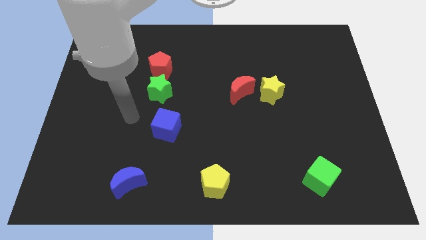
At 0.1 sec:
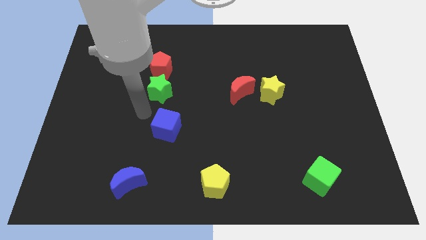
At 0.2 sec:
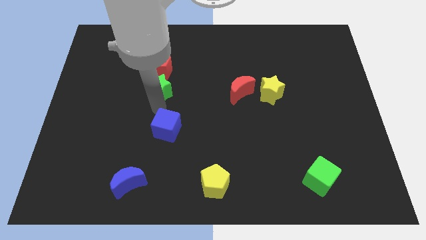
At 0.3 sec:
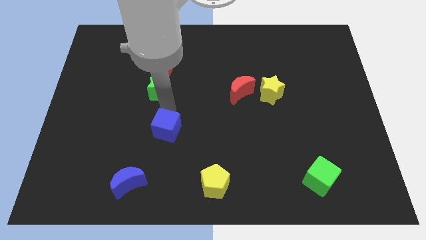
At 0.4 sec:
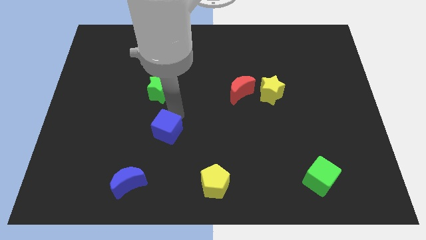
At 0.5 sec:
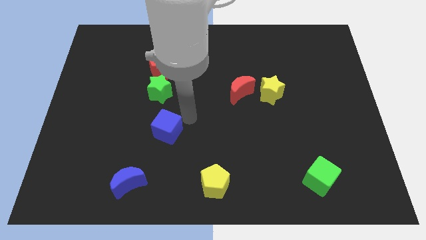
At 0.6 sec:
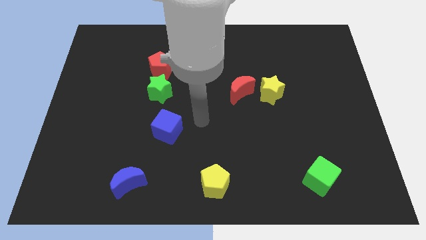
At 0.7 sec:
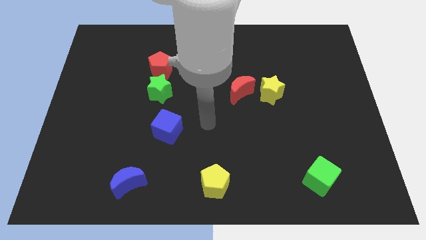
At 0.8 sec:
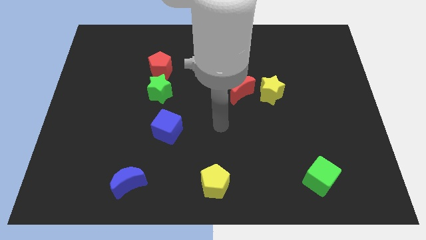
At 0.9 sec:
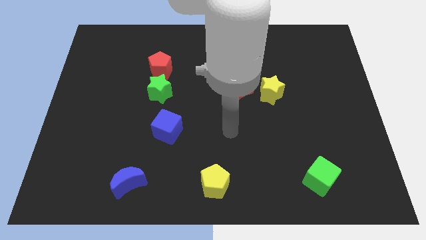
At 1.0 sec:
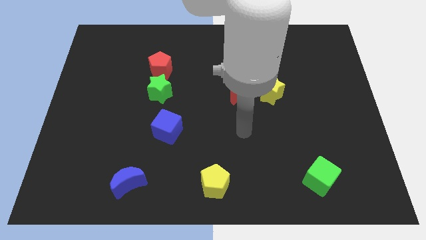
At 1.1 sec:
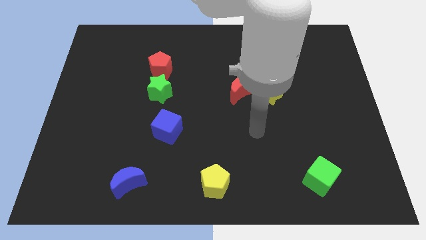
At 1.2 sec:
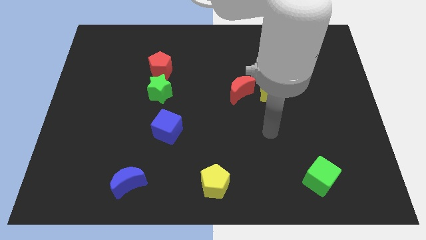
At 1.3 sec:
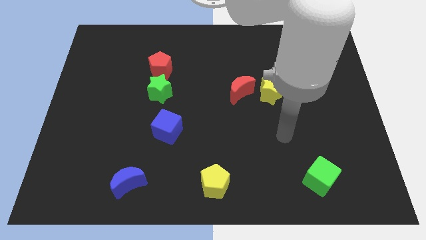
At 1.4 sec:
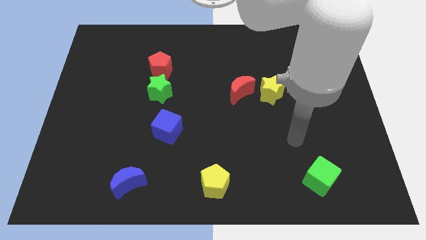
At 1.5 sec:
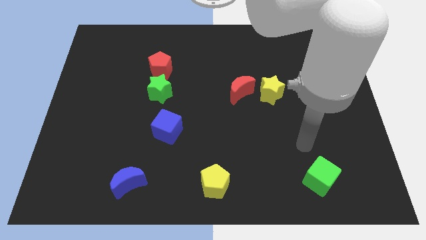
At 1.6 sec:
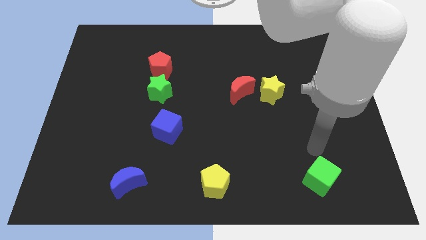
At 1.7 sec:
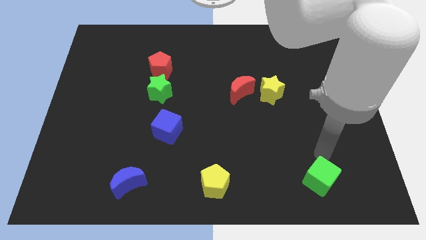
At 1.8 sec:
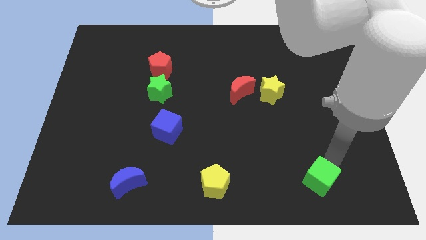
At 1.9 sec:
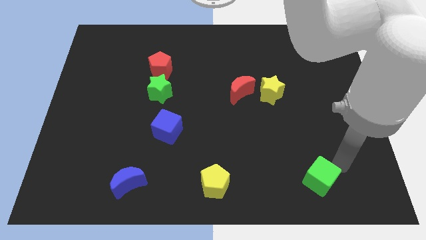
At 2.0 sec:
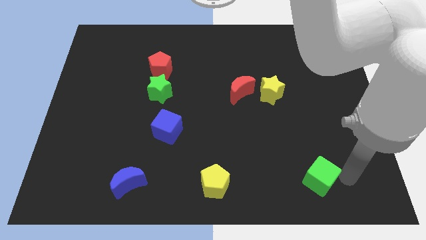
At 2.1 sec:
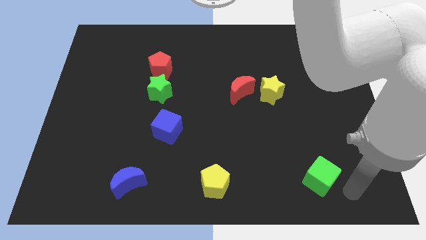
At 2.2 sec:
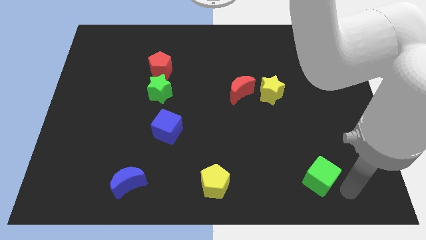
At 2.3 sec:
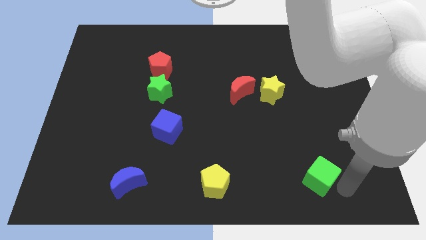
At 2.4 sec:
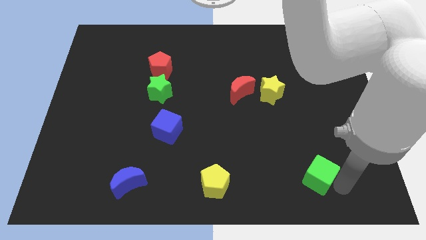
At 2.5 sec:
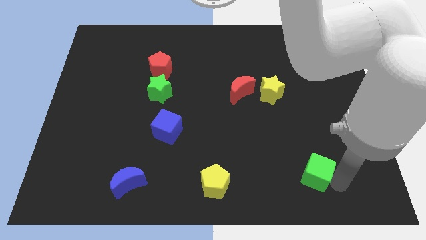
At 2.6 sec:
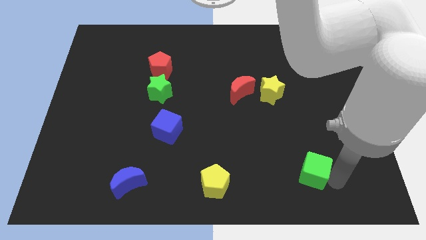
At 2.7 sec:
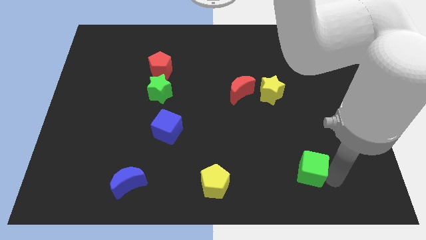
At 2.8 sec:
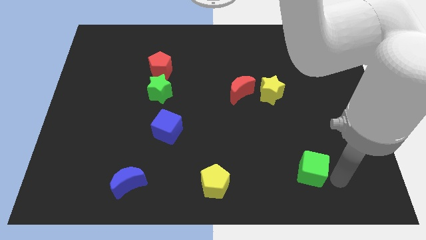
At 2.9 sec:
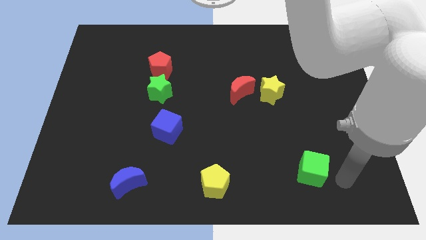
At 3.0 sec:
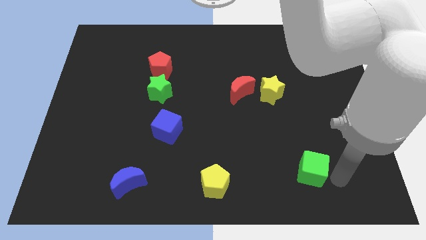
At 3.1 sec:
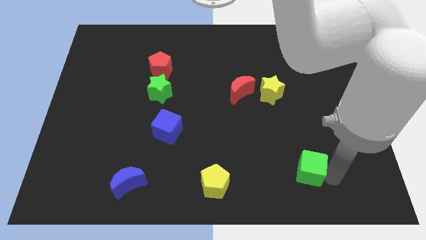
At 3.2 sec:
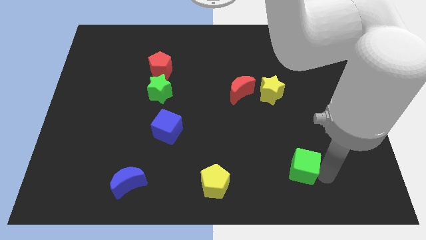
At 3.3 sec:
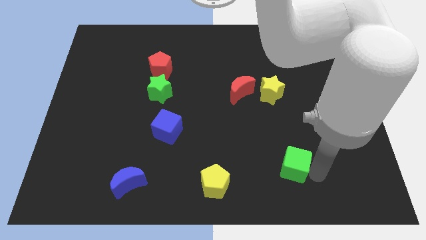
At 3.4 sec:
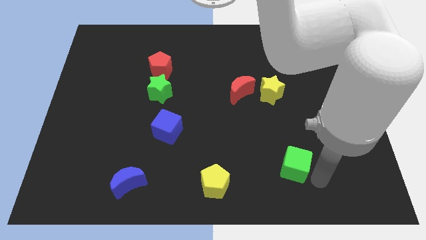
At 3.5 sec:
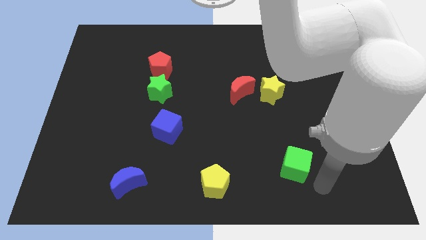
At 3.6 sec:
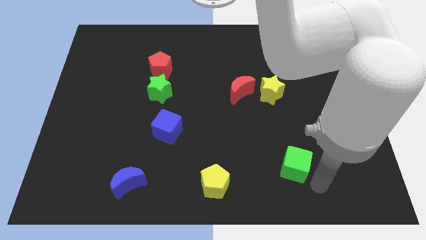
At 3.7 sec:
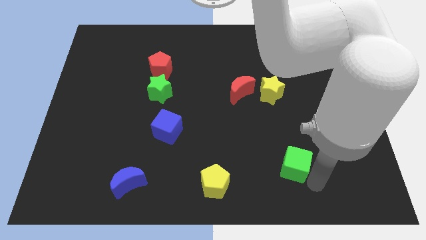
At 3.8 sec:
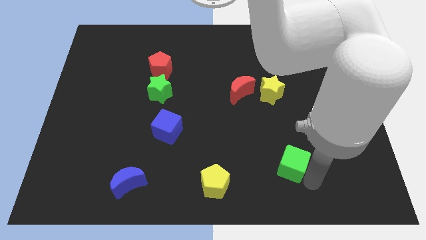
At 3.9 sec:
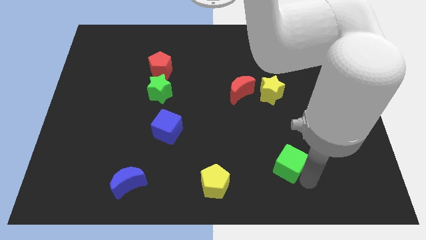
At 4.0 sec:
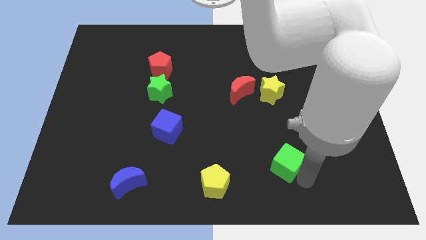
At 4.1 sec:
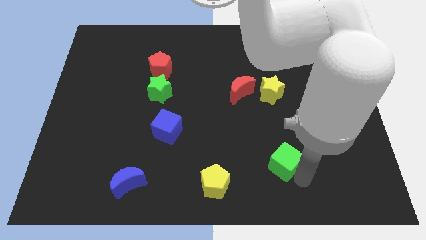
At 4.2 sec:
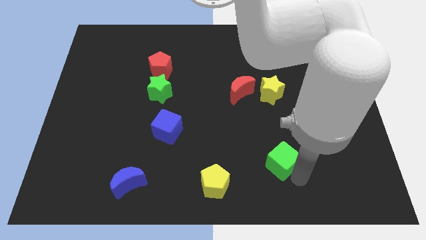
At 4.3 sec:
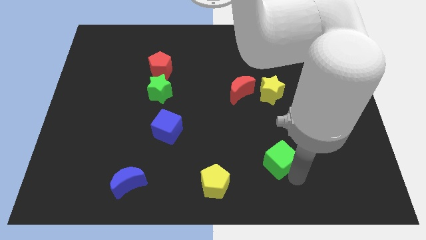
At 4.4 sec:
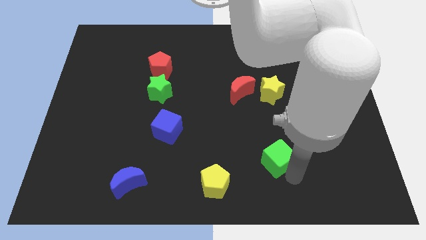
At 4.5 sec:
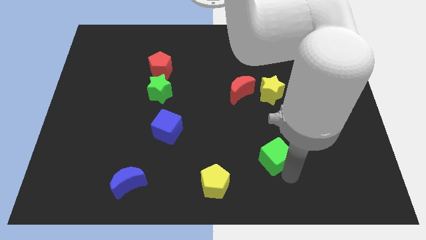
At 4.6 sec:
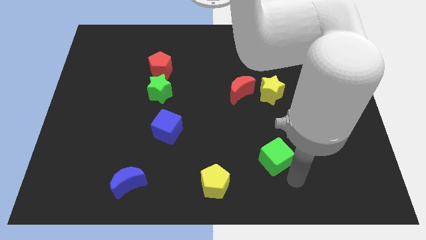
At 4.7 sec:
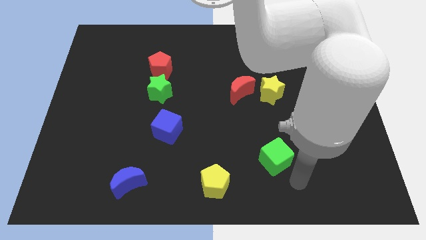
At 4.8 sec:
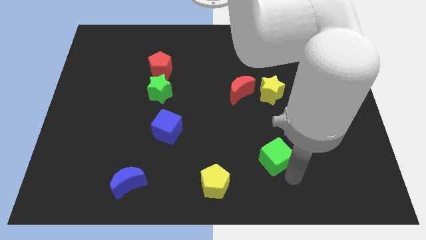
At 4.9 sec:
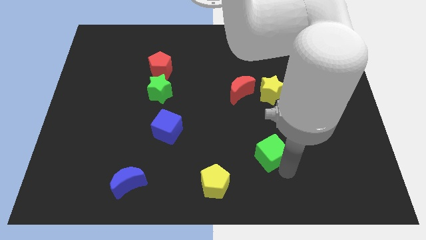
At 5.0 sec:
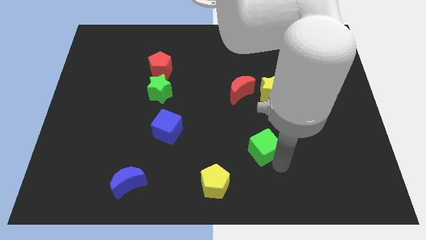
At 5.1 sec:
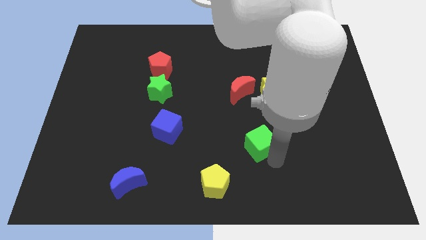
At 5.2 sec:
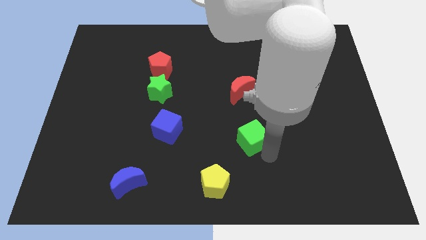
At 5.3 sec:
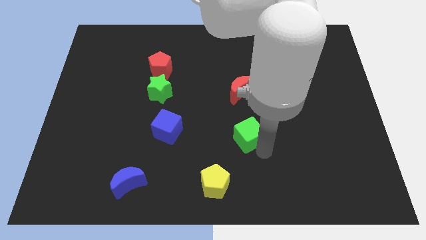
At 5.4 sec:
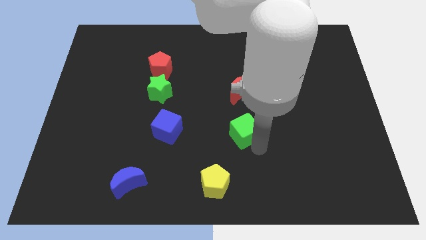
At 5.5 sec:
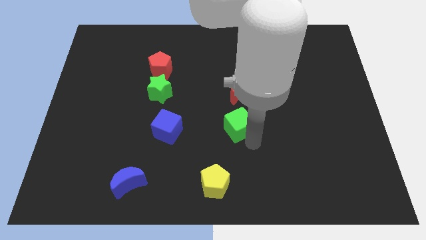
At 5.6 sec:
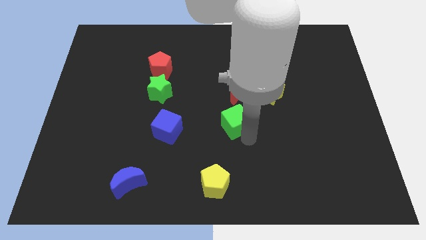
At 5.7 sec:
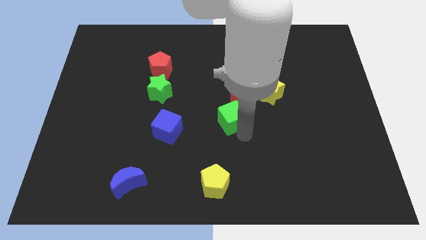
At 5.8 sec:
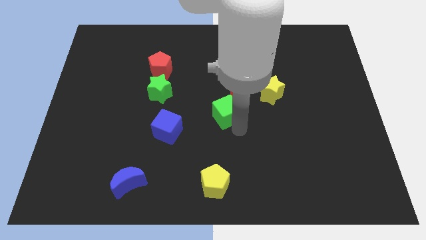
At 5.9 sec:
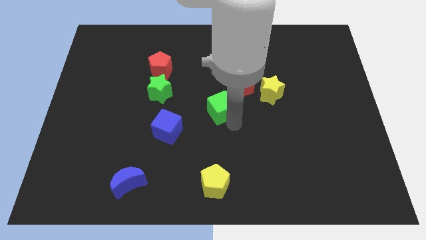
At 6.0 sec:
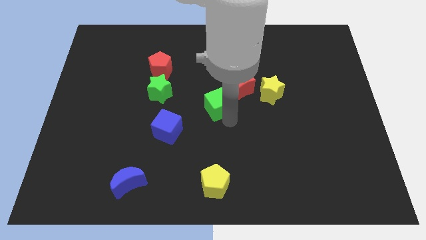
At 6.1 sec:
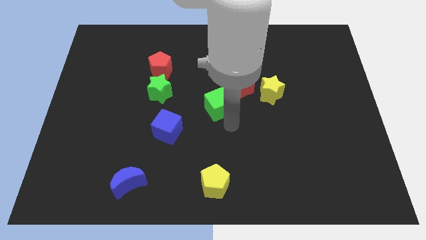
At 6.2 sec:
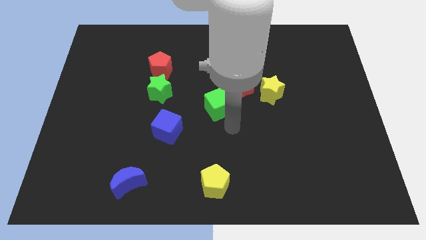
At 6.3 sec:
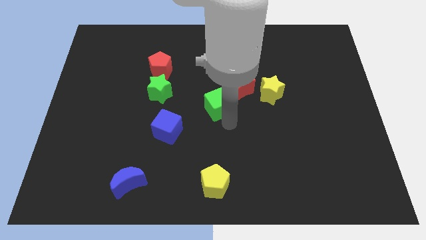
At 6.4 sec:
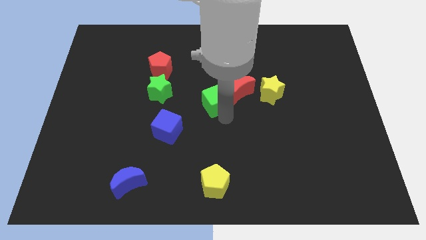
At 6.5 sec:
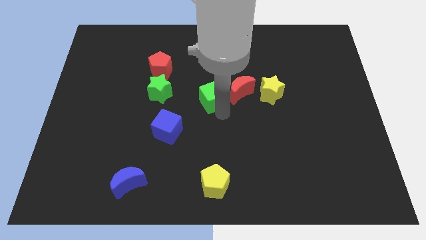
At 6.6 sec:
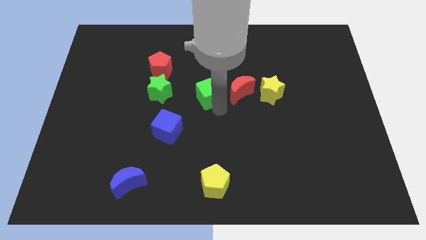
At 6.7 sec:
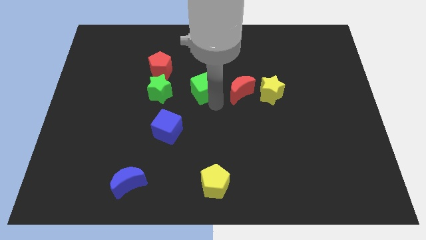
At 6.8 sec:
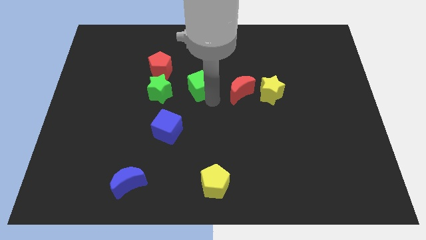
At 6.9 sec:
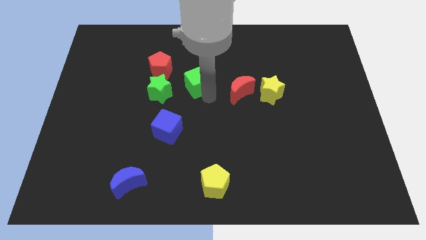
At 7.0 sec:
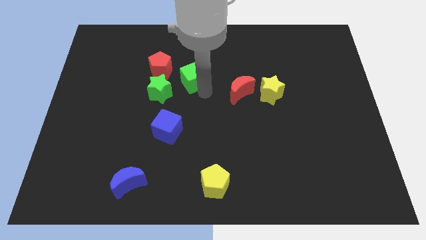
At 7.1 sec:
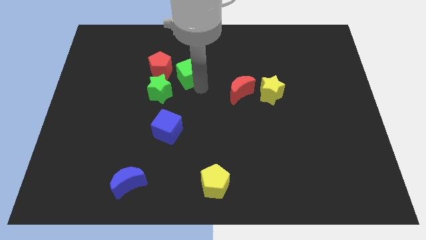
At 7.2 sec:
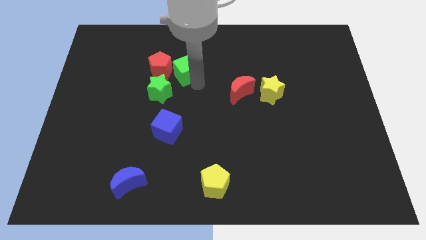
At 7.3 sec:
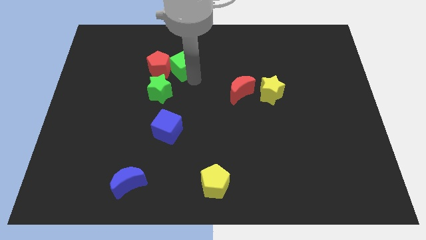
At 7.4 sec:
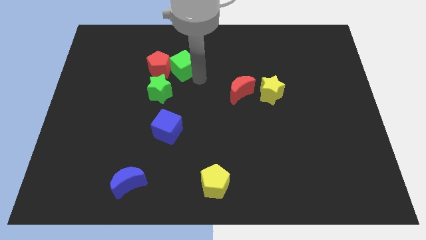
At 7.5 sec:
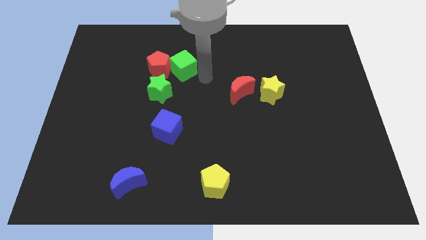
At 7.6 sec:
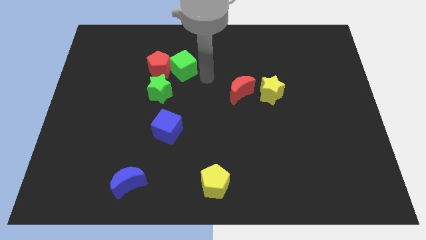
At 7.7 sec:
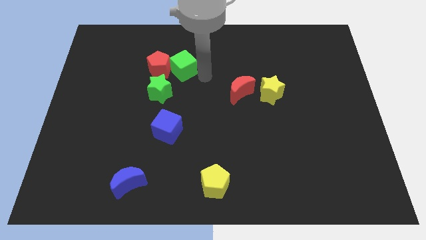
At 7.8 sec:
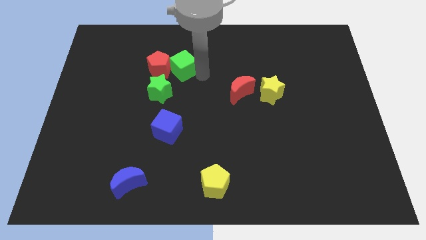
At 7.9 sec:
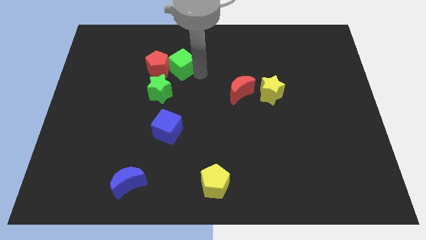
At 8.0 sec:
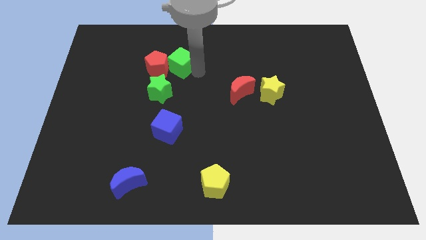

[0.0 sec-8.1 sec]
slide the green cube to the top of the green star
